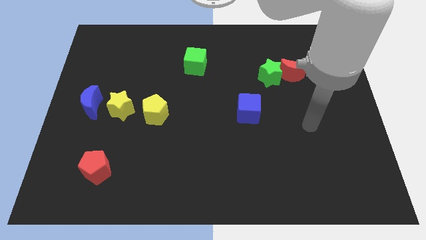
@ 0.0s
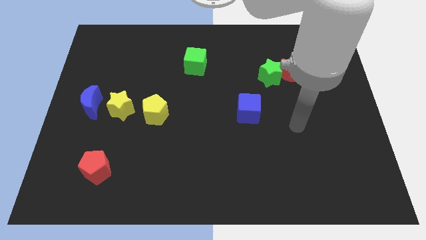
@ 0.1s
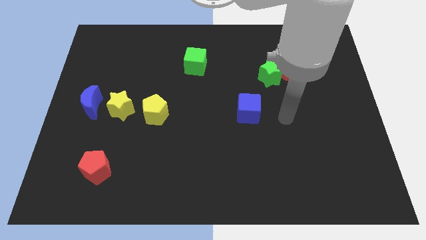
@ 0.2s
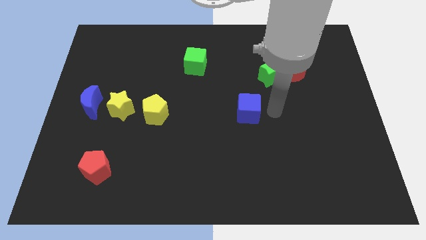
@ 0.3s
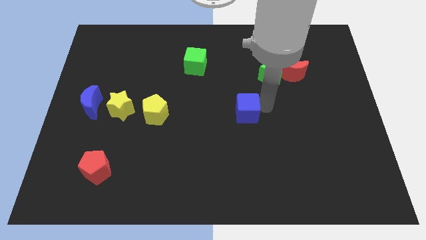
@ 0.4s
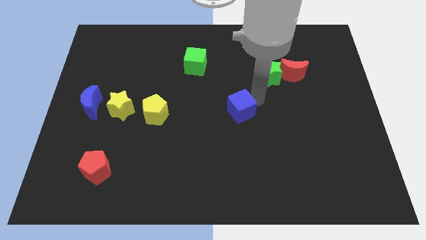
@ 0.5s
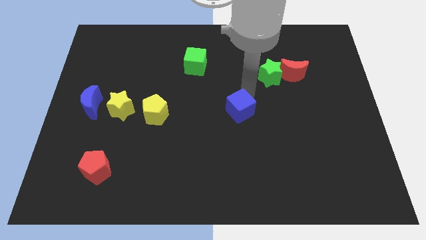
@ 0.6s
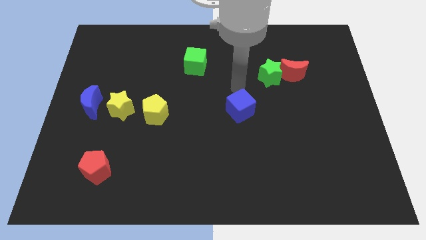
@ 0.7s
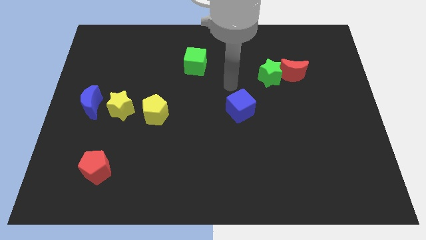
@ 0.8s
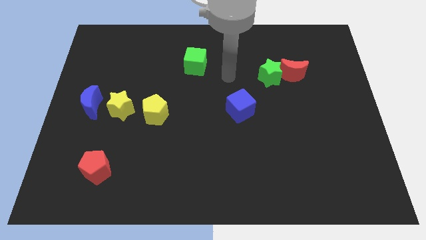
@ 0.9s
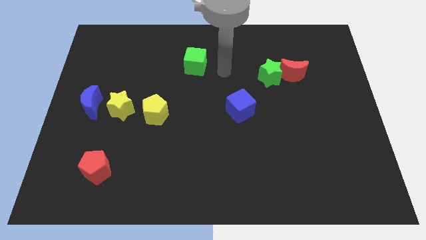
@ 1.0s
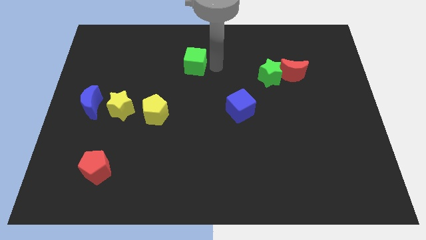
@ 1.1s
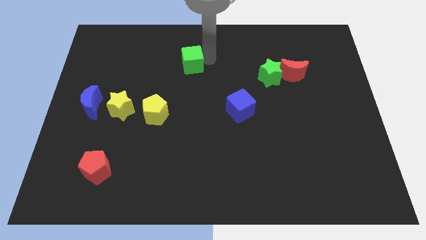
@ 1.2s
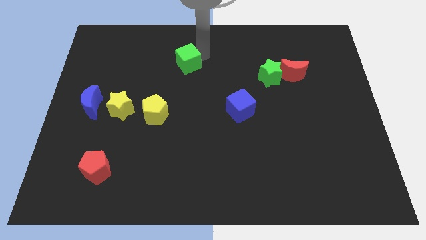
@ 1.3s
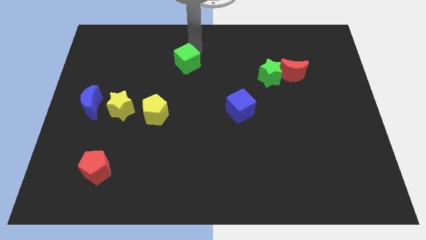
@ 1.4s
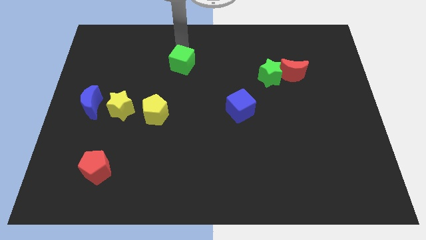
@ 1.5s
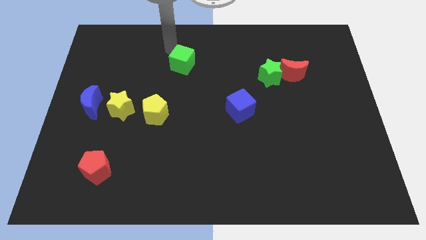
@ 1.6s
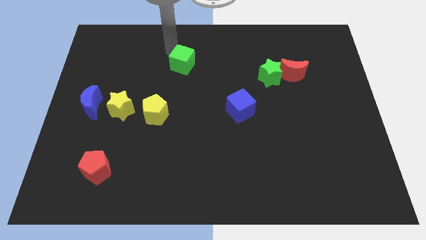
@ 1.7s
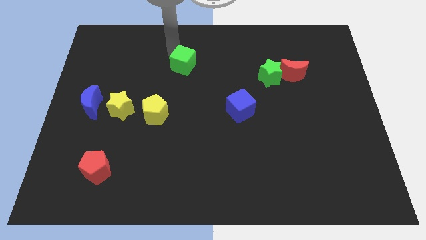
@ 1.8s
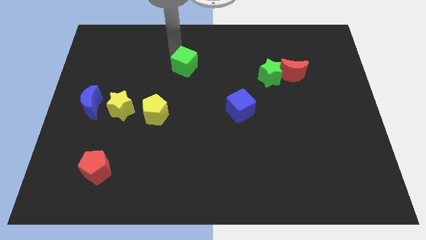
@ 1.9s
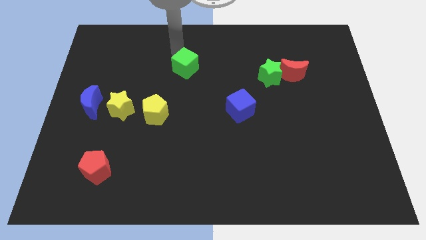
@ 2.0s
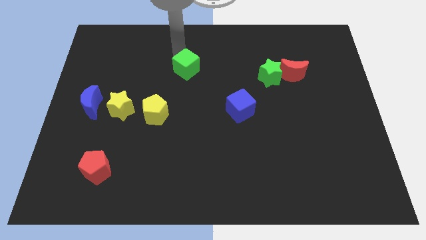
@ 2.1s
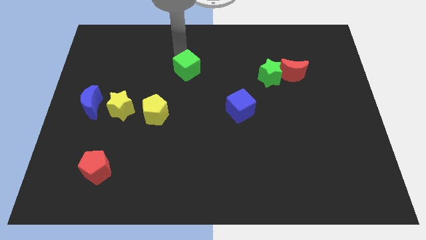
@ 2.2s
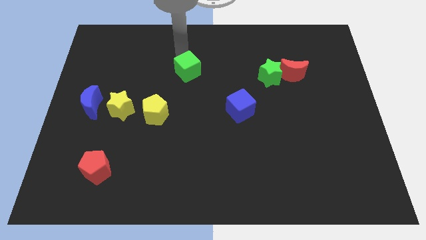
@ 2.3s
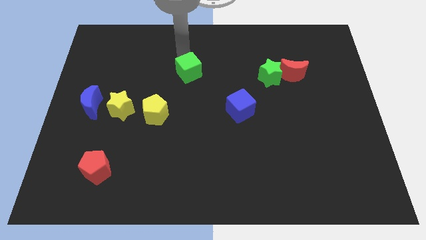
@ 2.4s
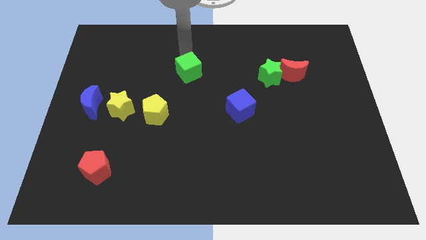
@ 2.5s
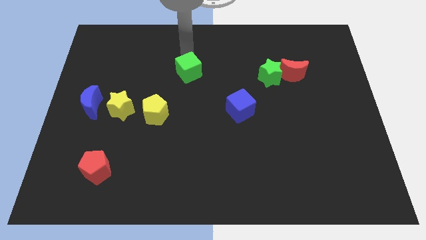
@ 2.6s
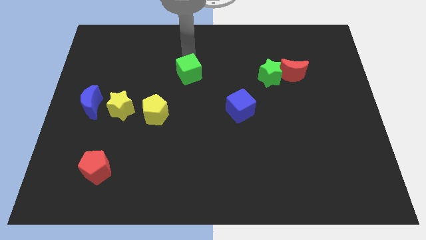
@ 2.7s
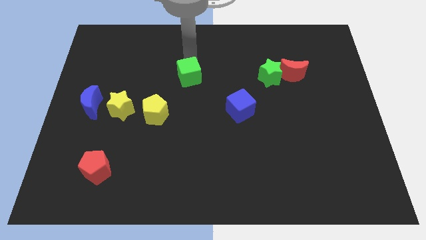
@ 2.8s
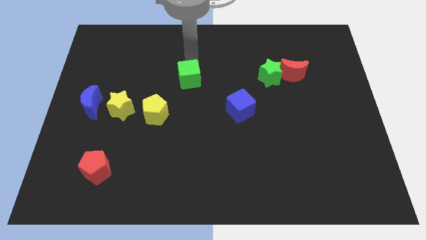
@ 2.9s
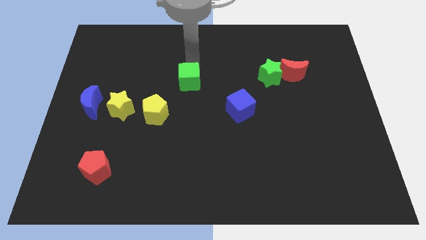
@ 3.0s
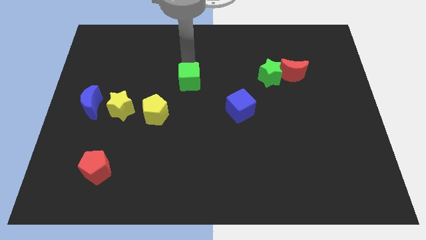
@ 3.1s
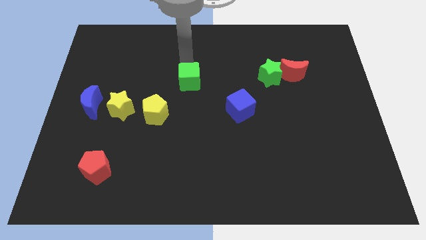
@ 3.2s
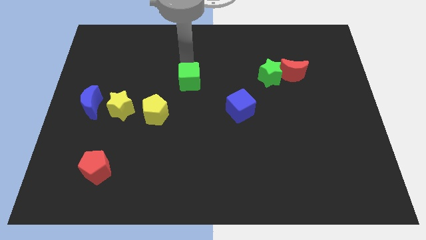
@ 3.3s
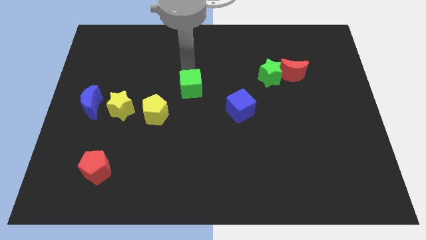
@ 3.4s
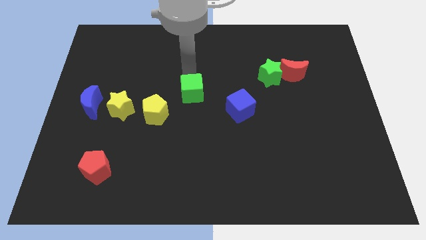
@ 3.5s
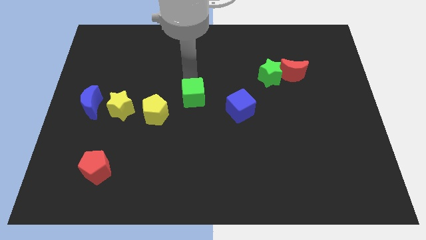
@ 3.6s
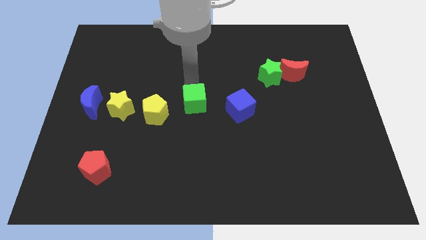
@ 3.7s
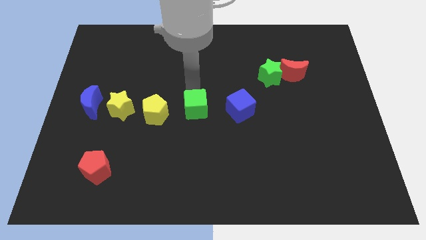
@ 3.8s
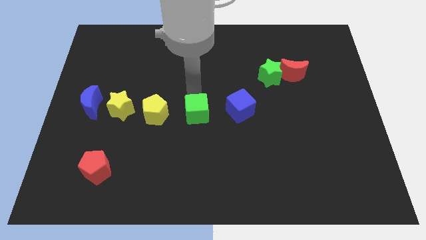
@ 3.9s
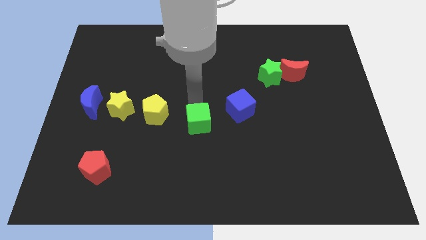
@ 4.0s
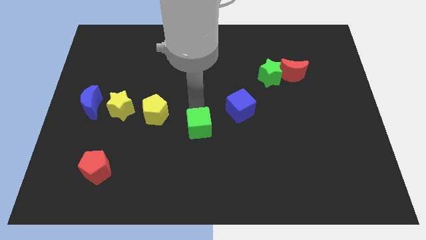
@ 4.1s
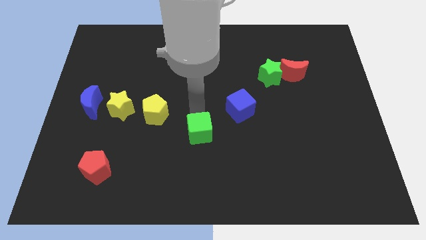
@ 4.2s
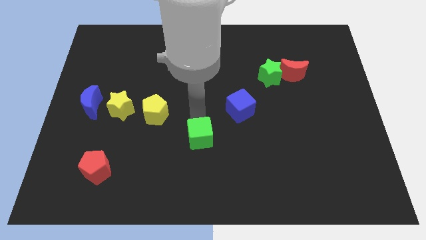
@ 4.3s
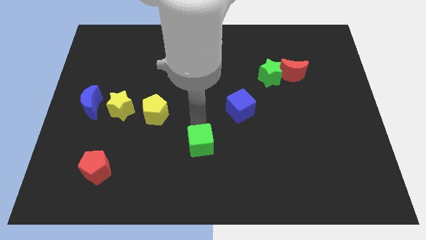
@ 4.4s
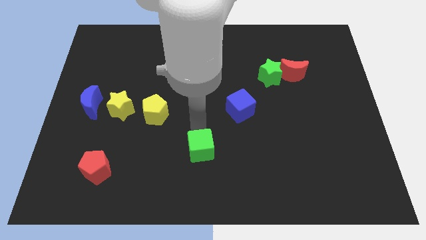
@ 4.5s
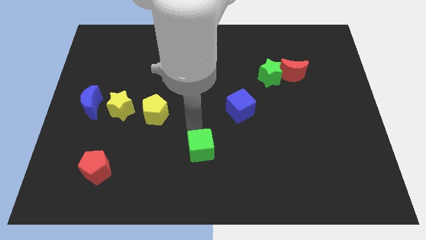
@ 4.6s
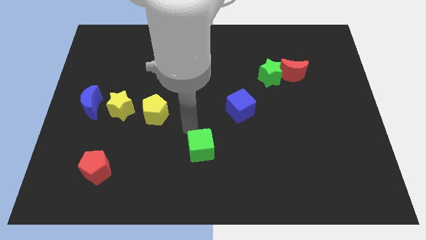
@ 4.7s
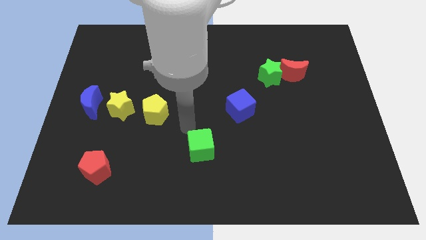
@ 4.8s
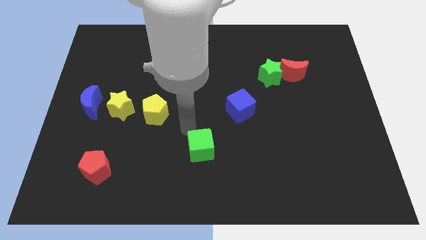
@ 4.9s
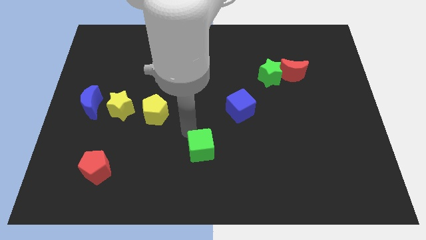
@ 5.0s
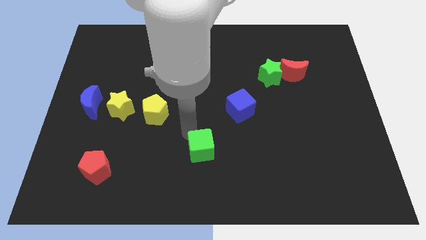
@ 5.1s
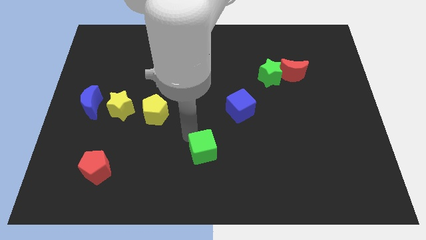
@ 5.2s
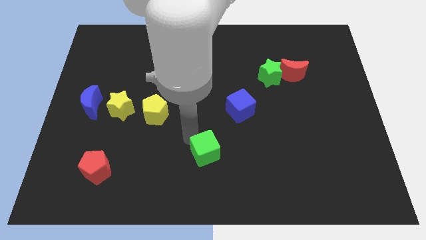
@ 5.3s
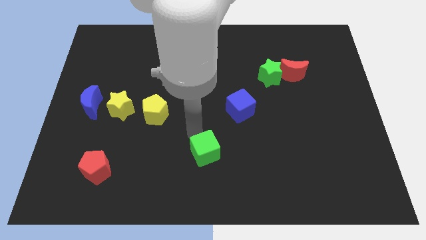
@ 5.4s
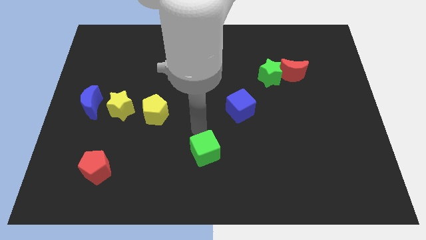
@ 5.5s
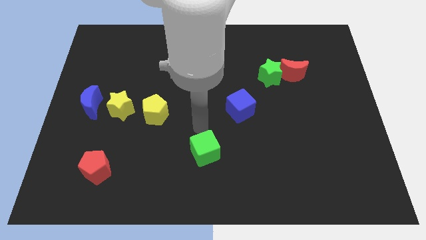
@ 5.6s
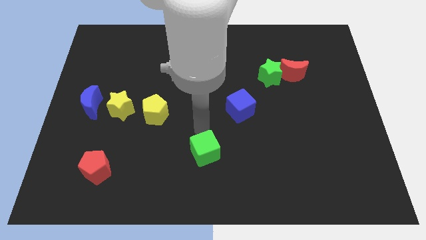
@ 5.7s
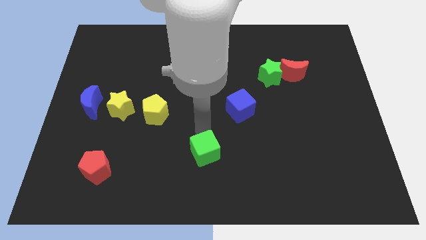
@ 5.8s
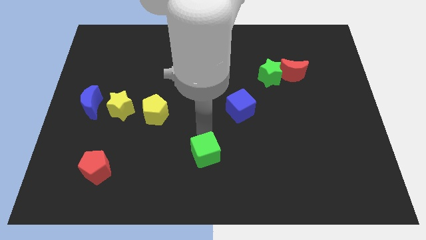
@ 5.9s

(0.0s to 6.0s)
push the green cube to the bottom

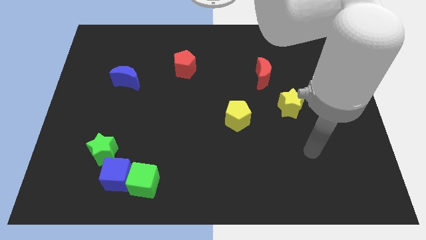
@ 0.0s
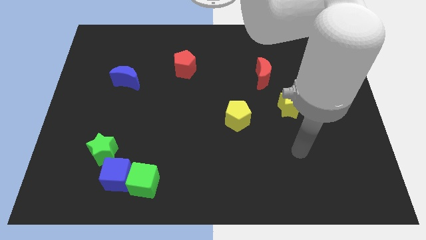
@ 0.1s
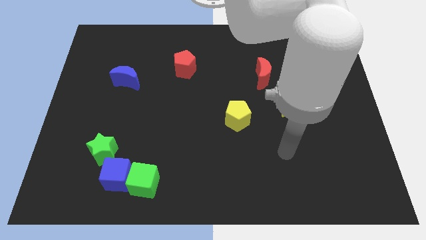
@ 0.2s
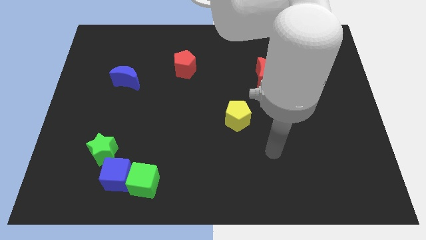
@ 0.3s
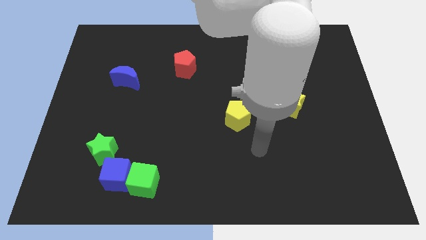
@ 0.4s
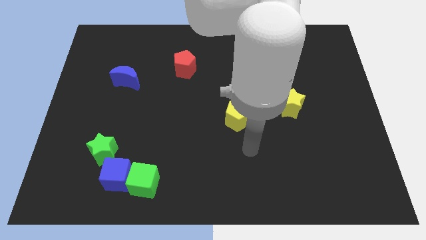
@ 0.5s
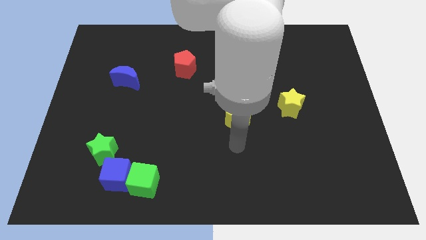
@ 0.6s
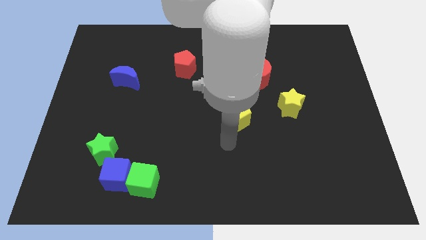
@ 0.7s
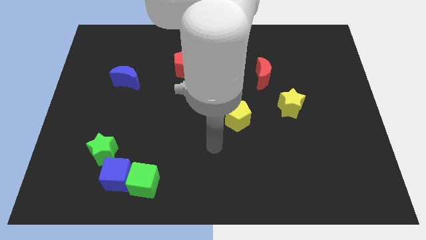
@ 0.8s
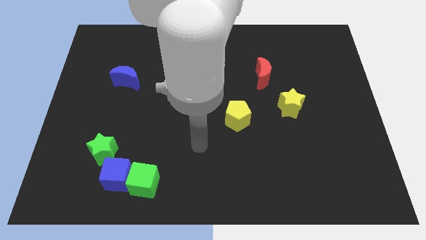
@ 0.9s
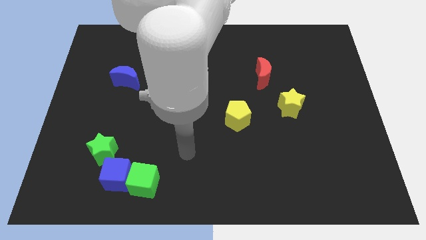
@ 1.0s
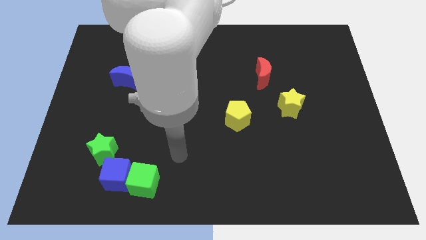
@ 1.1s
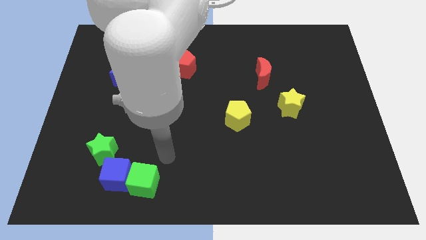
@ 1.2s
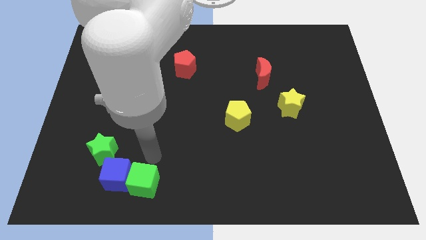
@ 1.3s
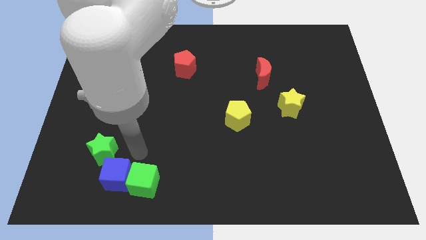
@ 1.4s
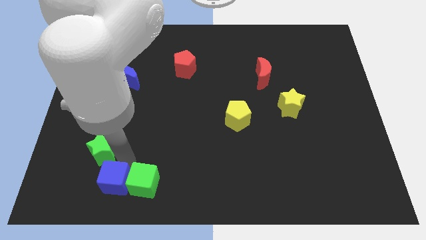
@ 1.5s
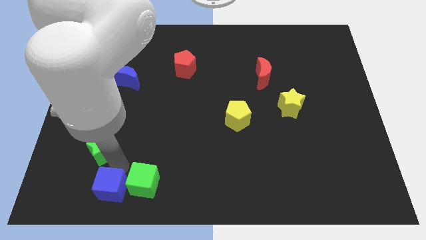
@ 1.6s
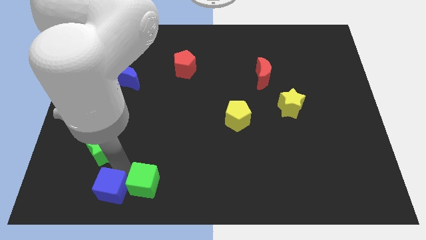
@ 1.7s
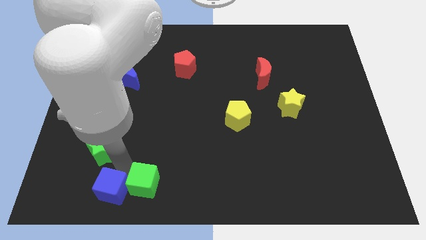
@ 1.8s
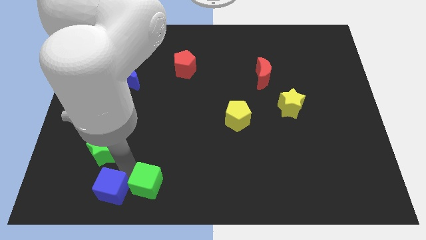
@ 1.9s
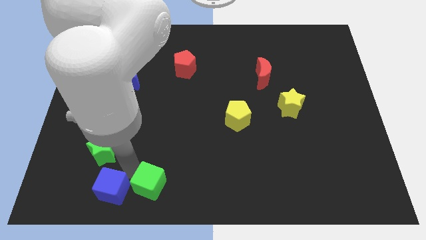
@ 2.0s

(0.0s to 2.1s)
slide the green cube to the bottom
